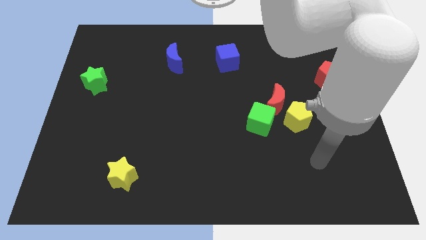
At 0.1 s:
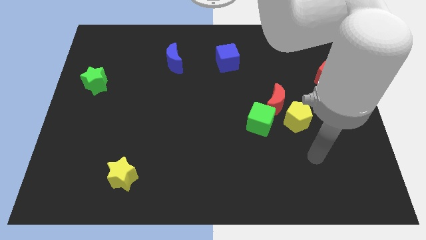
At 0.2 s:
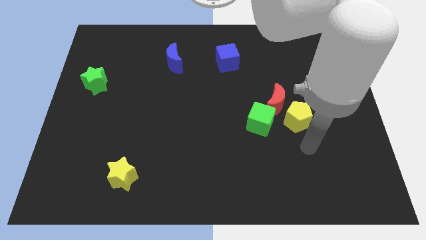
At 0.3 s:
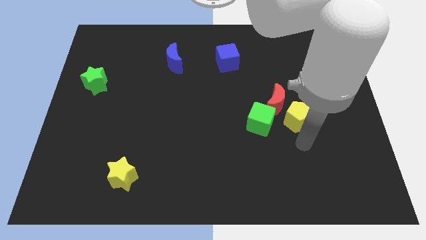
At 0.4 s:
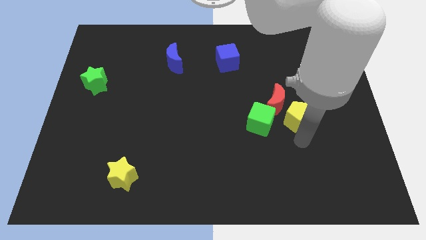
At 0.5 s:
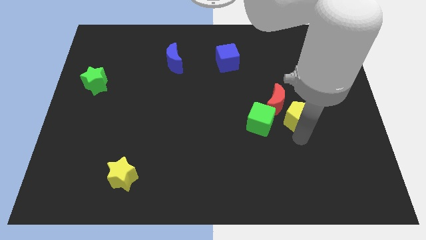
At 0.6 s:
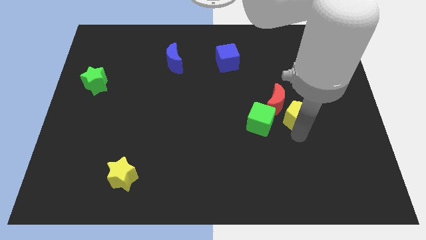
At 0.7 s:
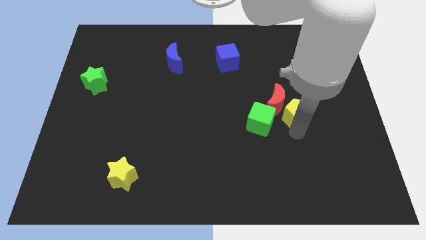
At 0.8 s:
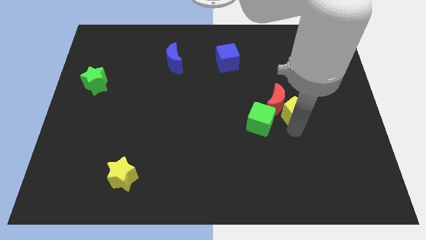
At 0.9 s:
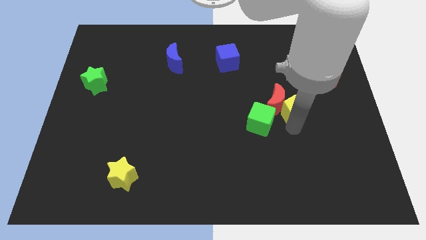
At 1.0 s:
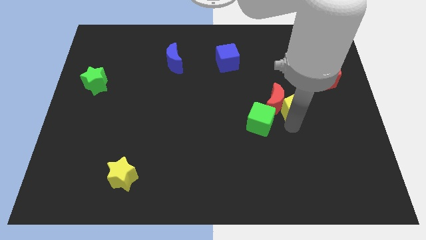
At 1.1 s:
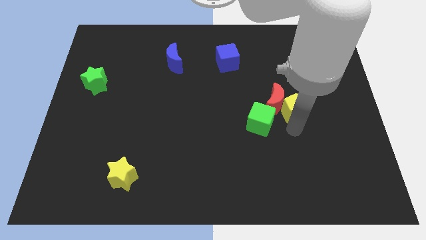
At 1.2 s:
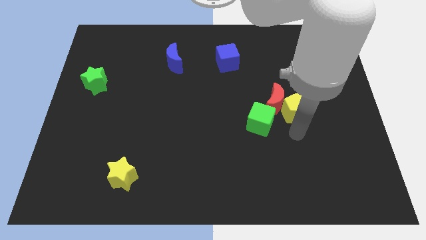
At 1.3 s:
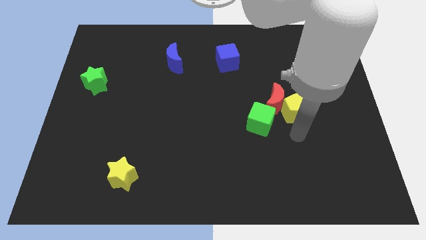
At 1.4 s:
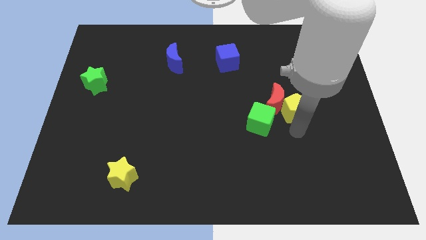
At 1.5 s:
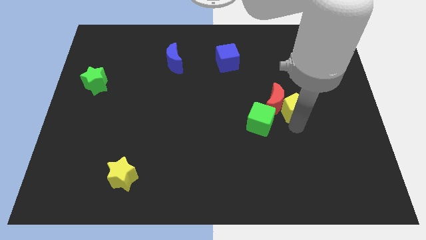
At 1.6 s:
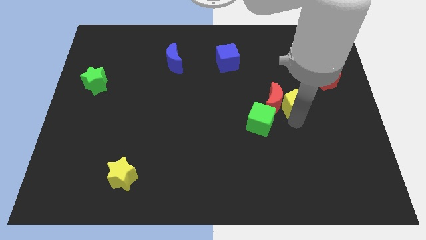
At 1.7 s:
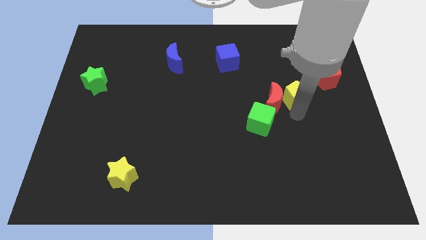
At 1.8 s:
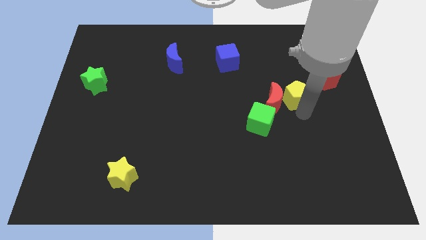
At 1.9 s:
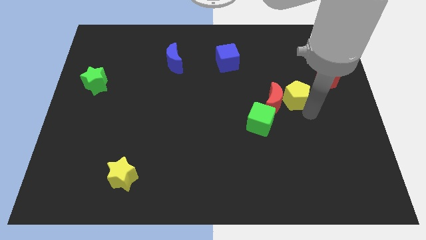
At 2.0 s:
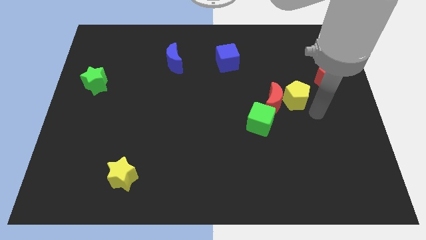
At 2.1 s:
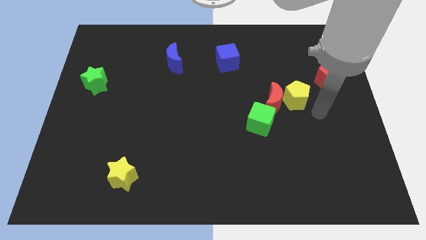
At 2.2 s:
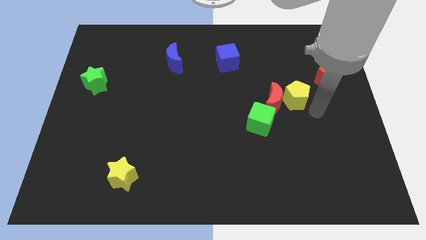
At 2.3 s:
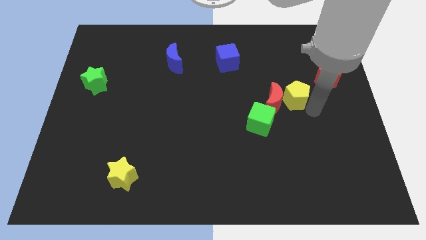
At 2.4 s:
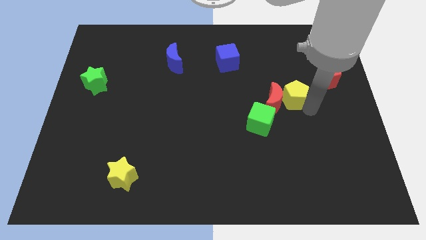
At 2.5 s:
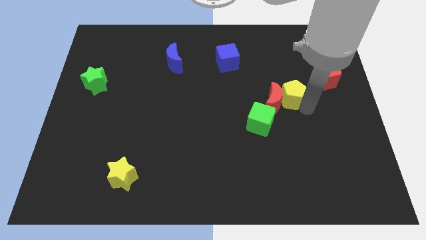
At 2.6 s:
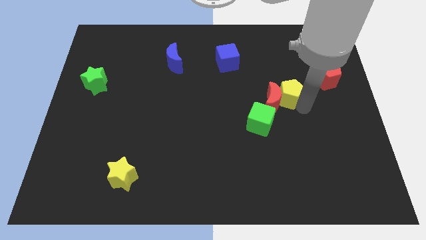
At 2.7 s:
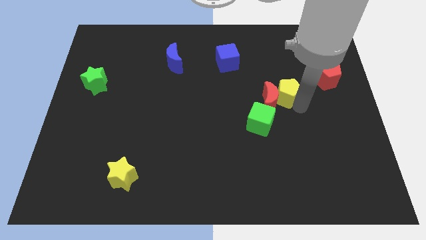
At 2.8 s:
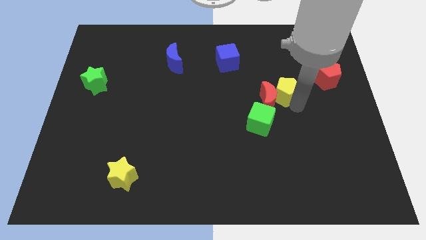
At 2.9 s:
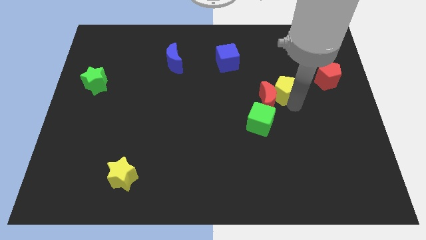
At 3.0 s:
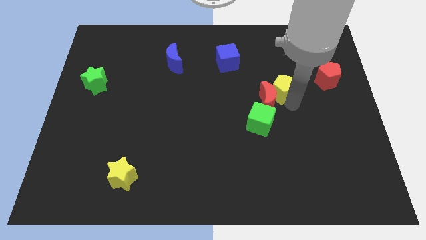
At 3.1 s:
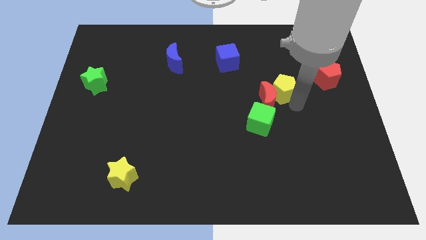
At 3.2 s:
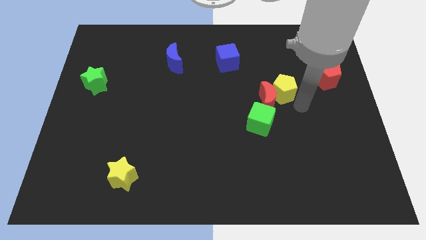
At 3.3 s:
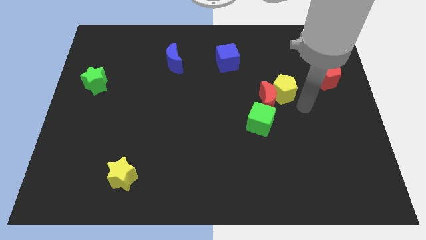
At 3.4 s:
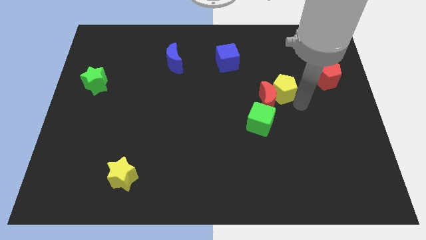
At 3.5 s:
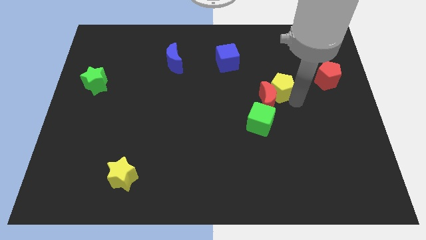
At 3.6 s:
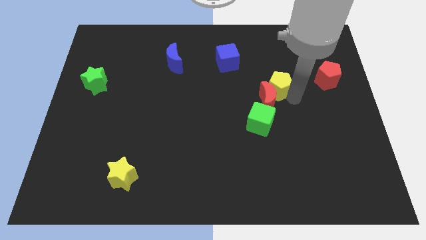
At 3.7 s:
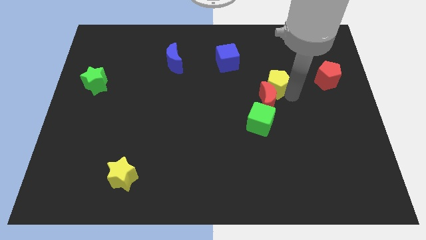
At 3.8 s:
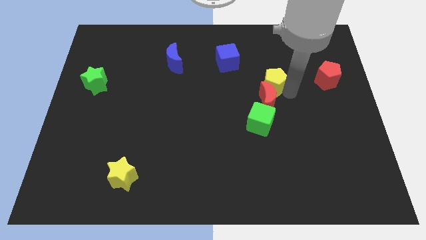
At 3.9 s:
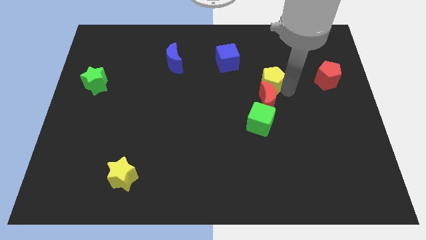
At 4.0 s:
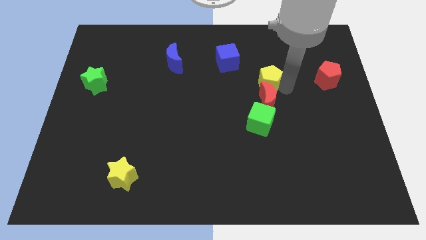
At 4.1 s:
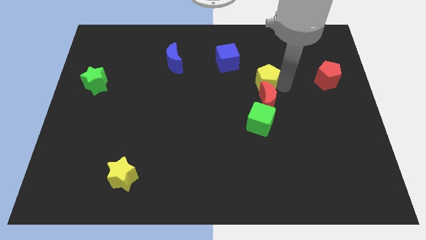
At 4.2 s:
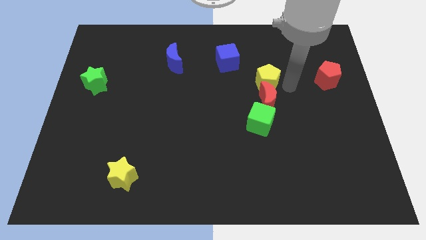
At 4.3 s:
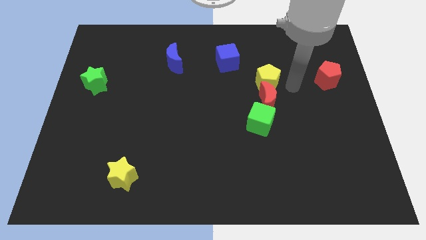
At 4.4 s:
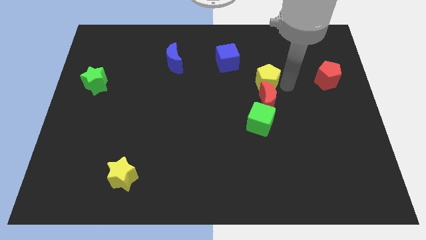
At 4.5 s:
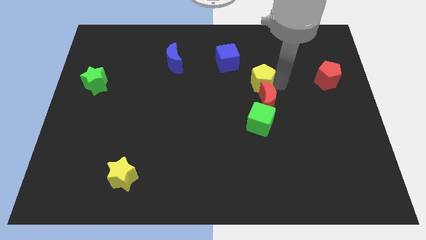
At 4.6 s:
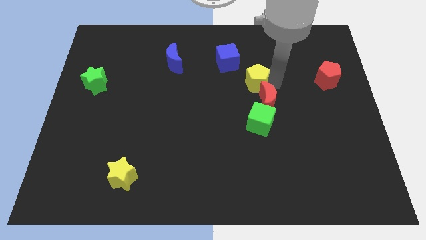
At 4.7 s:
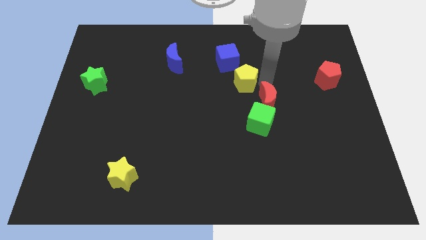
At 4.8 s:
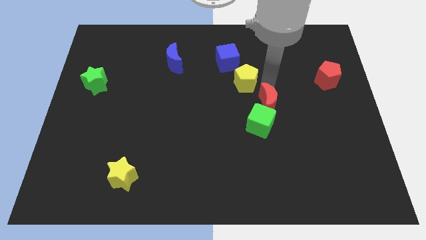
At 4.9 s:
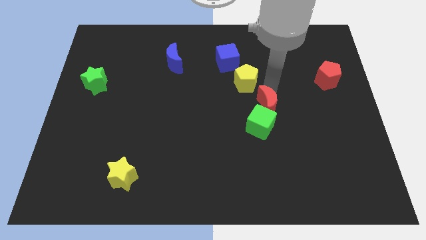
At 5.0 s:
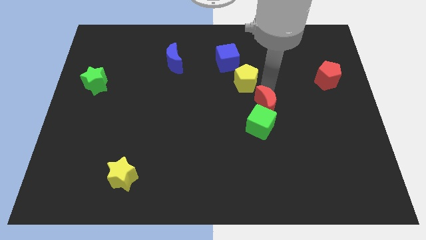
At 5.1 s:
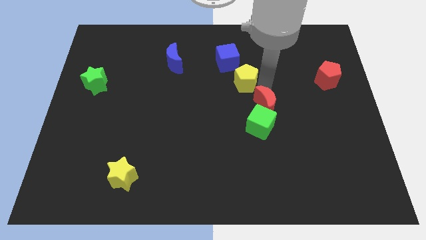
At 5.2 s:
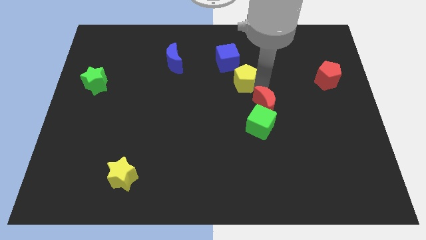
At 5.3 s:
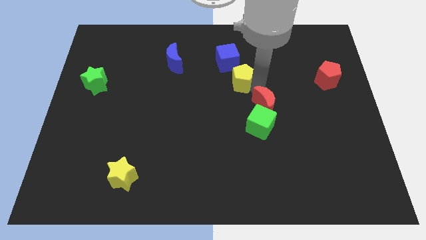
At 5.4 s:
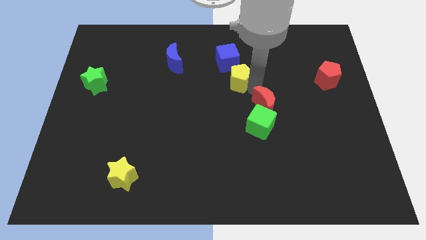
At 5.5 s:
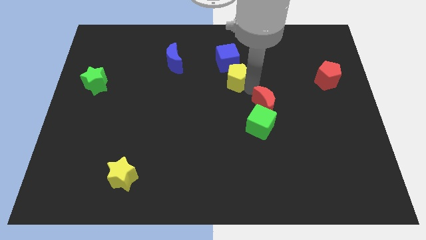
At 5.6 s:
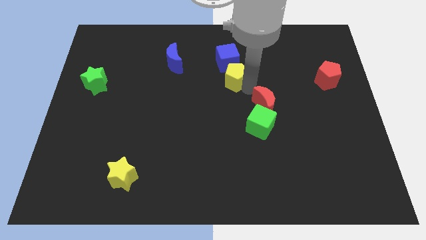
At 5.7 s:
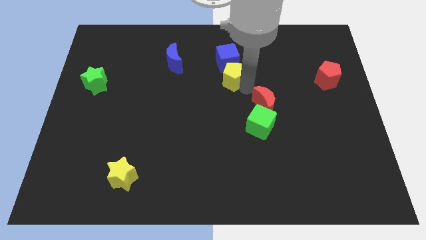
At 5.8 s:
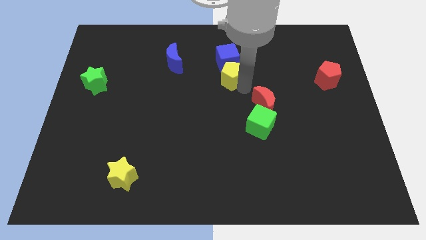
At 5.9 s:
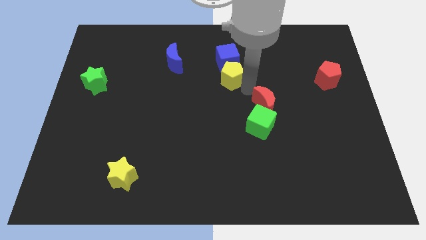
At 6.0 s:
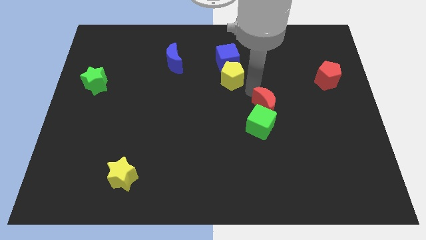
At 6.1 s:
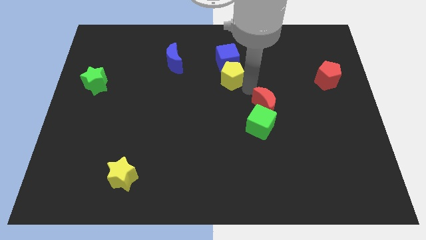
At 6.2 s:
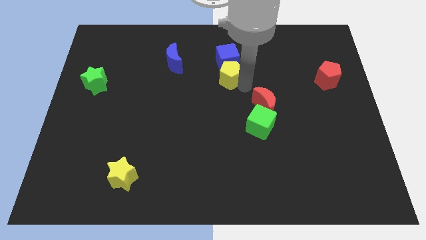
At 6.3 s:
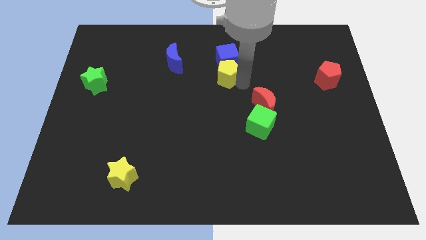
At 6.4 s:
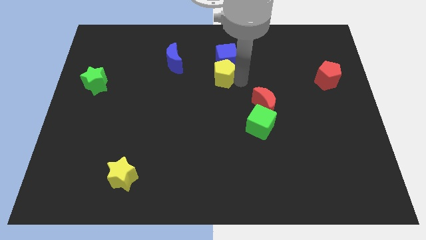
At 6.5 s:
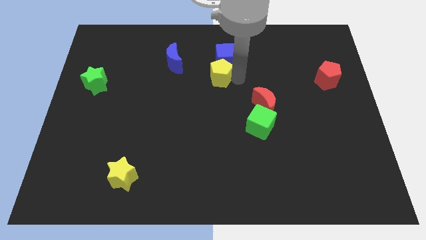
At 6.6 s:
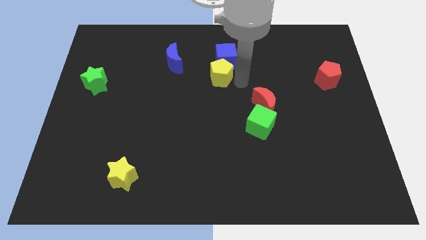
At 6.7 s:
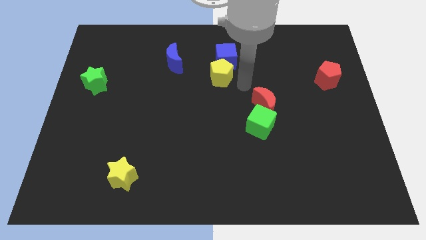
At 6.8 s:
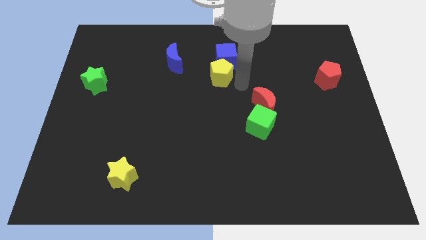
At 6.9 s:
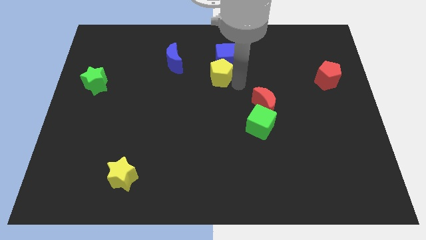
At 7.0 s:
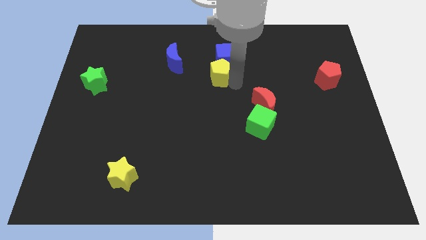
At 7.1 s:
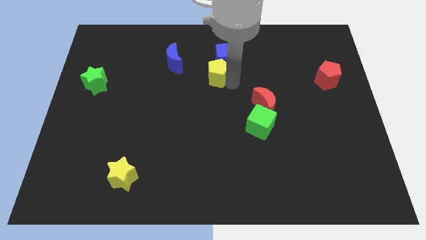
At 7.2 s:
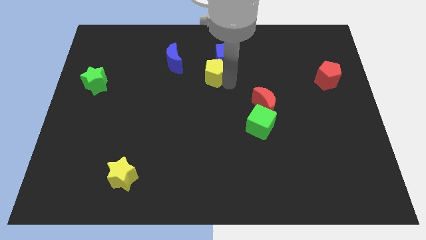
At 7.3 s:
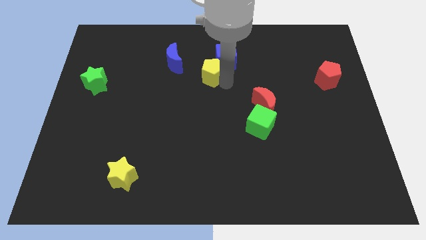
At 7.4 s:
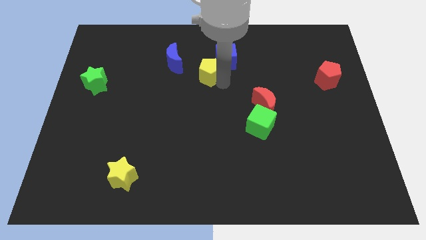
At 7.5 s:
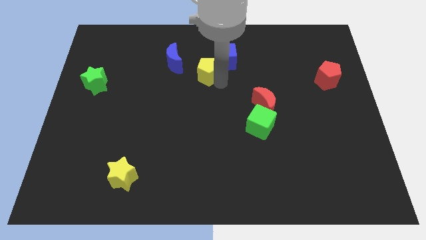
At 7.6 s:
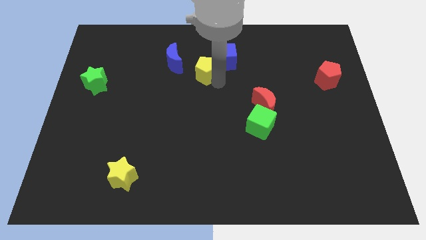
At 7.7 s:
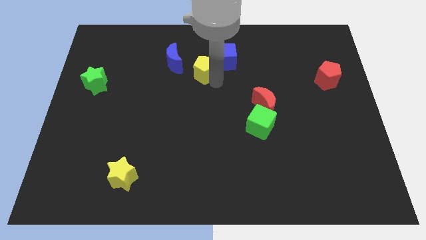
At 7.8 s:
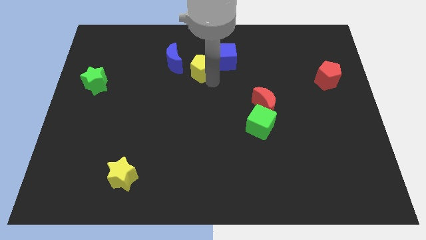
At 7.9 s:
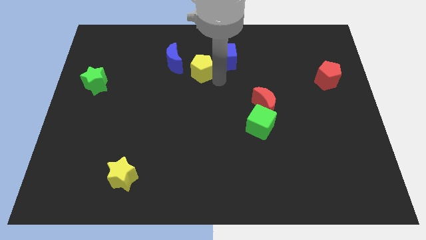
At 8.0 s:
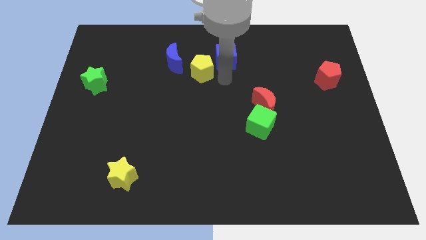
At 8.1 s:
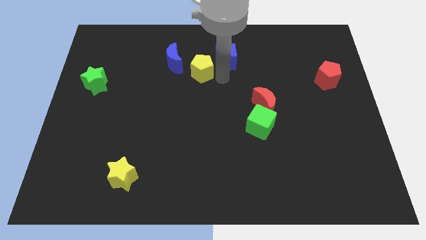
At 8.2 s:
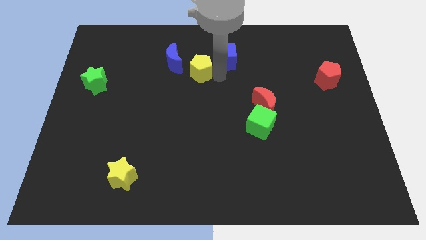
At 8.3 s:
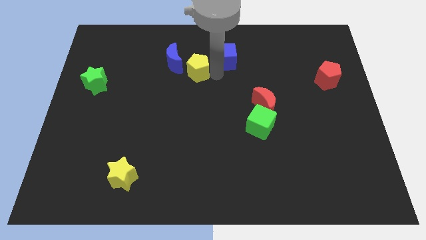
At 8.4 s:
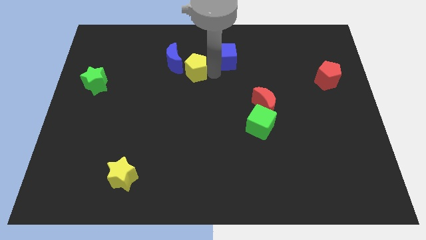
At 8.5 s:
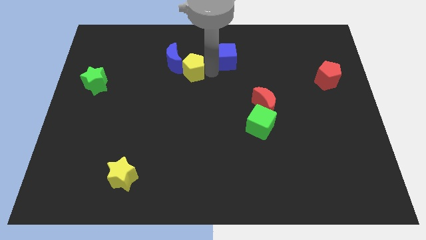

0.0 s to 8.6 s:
move the yellow pentagon next to the blue moon
